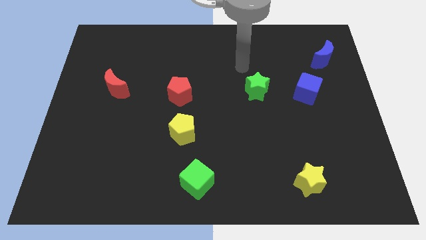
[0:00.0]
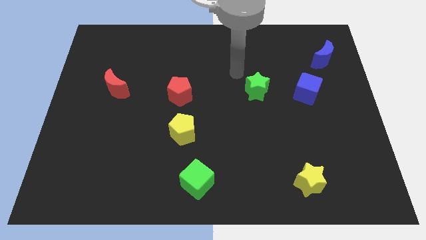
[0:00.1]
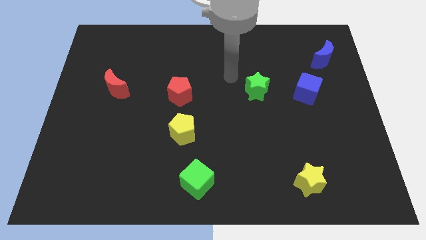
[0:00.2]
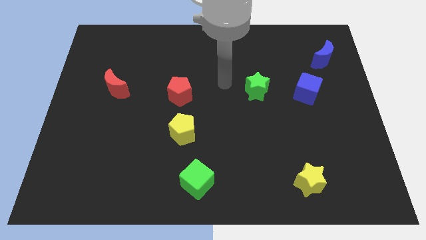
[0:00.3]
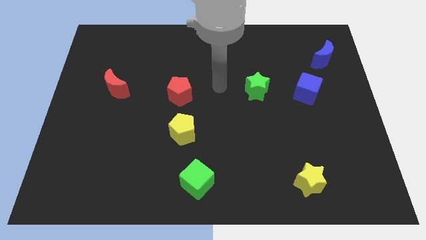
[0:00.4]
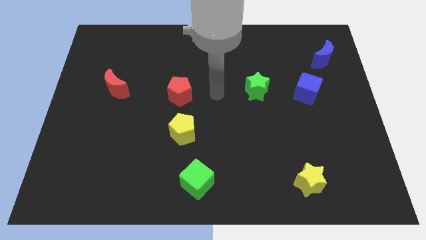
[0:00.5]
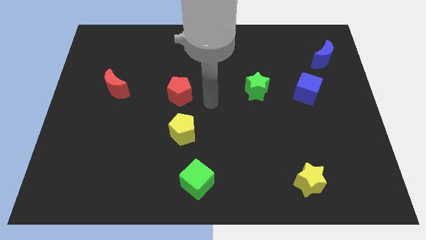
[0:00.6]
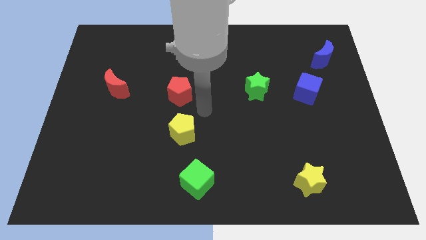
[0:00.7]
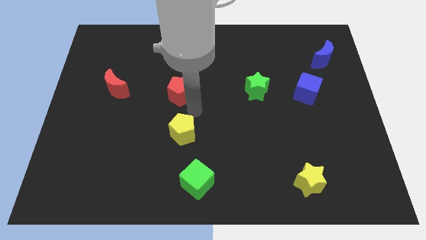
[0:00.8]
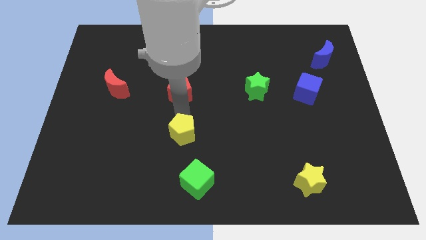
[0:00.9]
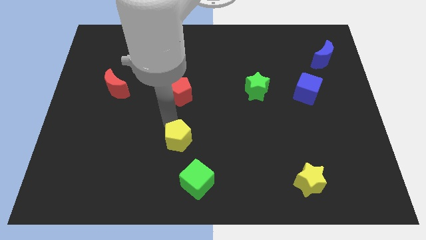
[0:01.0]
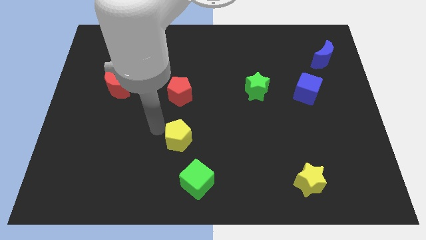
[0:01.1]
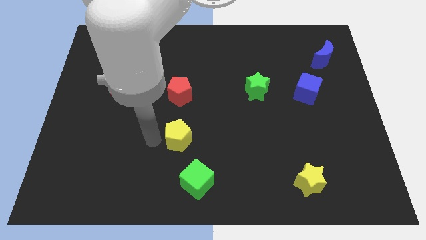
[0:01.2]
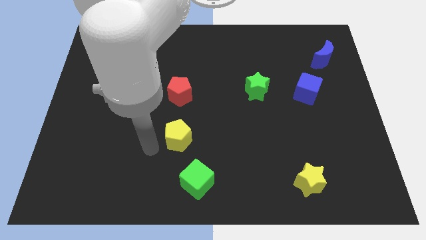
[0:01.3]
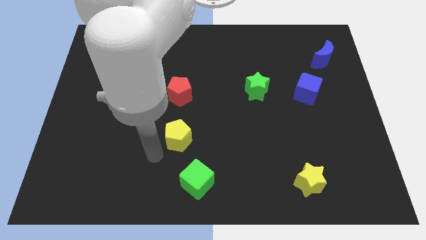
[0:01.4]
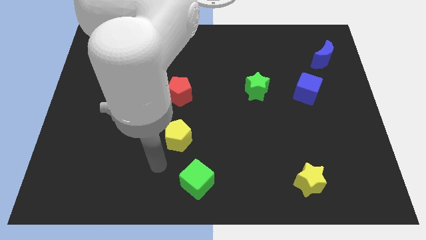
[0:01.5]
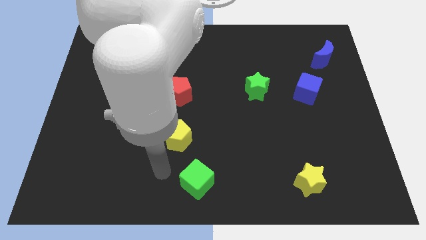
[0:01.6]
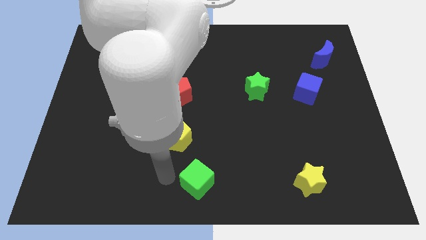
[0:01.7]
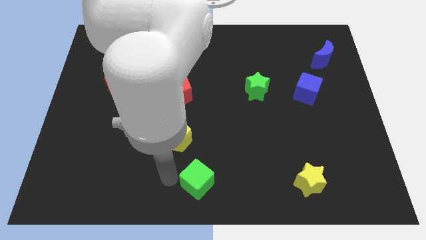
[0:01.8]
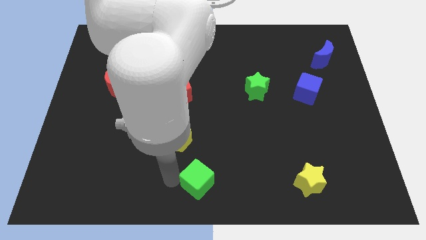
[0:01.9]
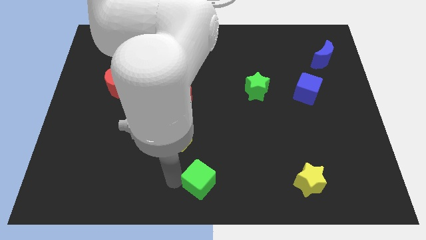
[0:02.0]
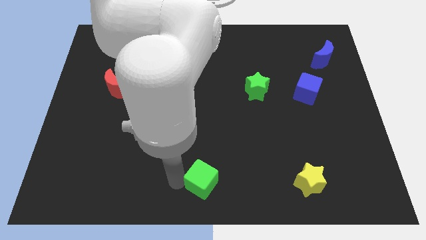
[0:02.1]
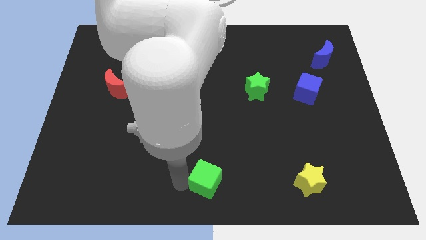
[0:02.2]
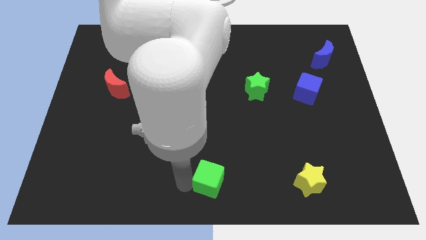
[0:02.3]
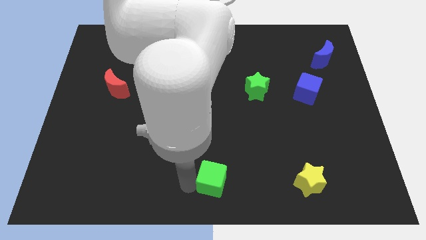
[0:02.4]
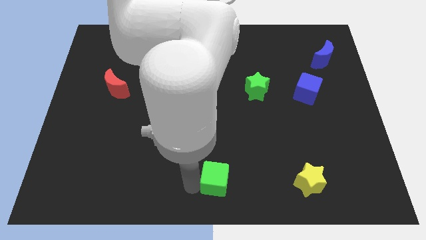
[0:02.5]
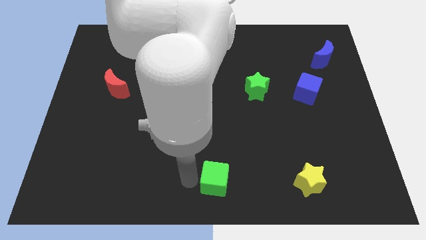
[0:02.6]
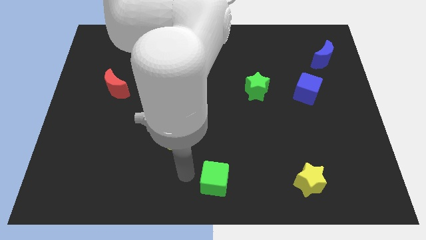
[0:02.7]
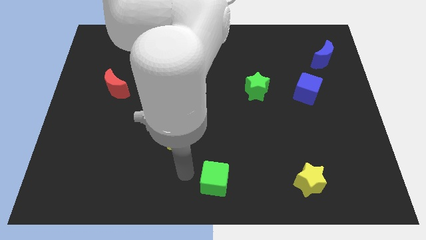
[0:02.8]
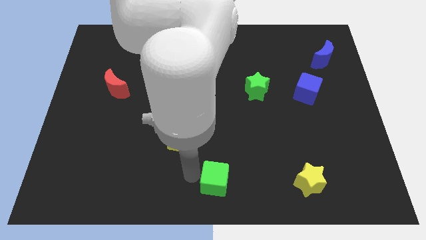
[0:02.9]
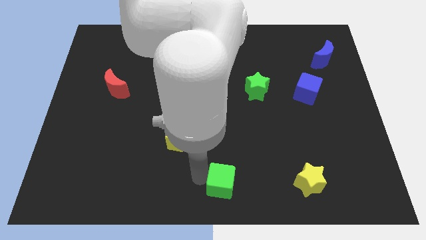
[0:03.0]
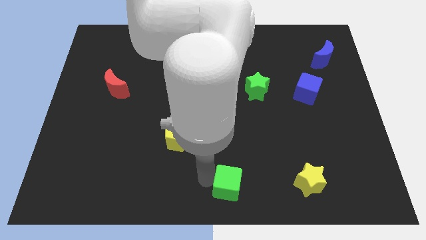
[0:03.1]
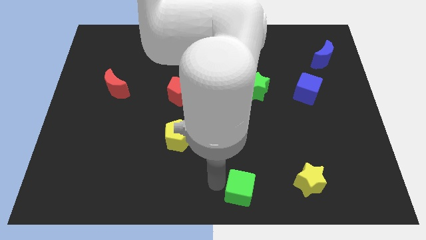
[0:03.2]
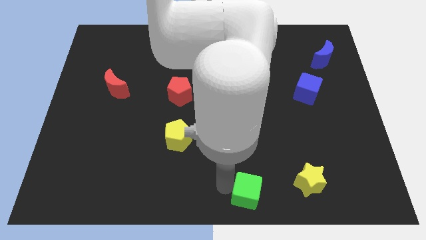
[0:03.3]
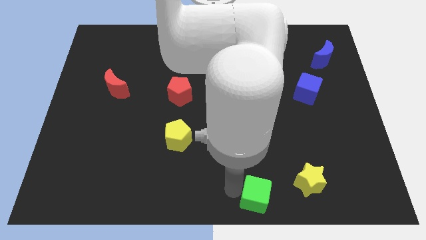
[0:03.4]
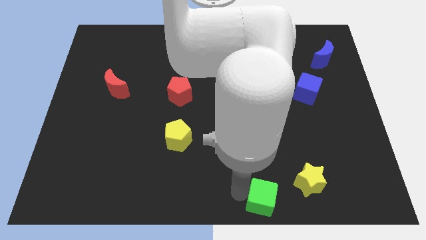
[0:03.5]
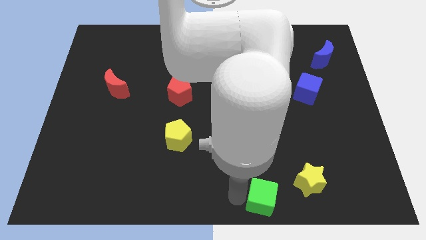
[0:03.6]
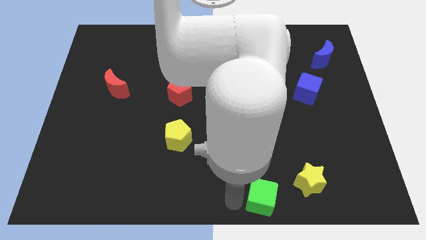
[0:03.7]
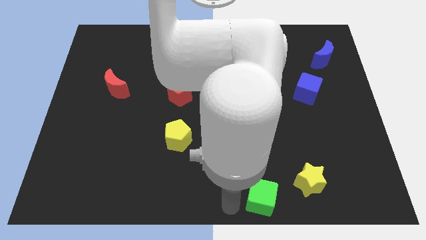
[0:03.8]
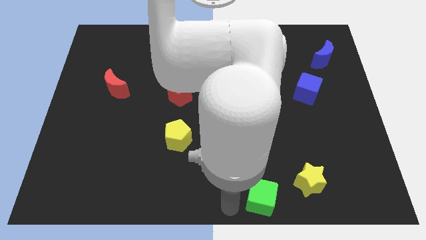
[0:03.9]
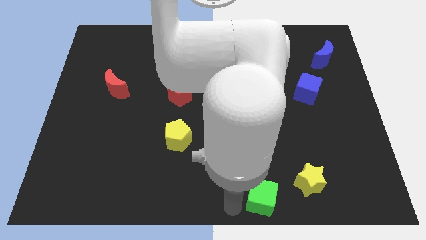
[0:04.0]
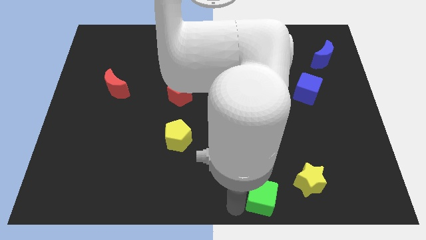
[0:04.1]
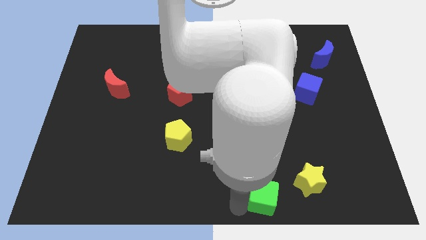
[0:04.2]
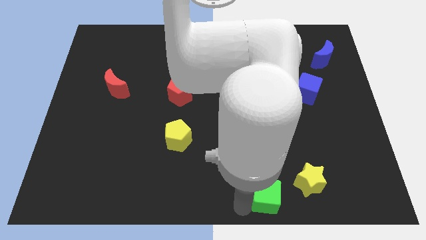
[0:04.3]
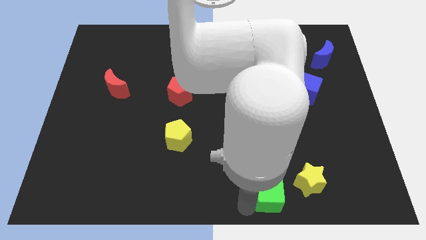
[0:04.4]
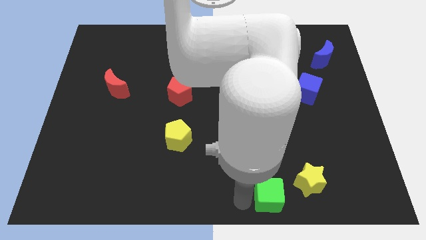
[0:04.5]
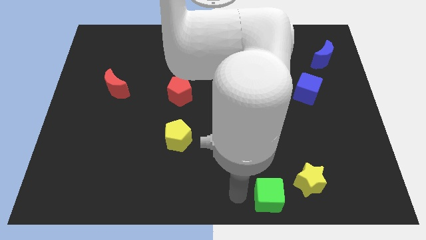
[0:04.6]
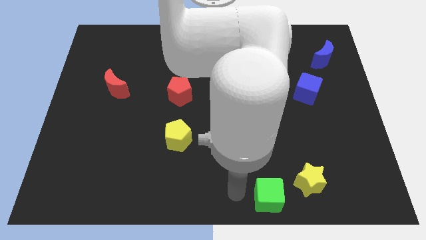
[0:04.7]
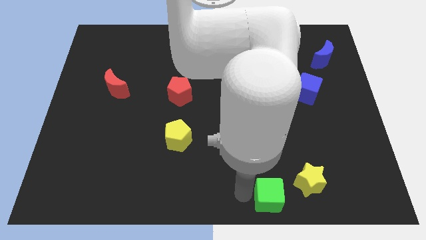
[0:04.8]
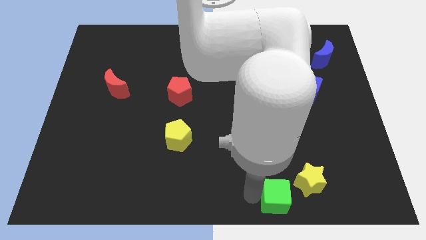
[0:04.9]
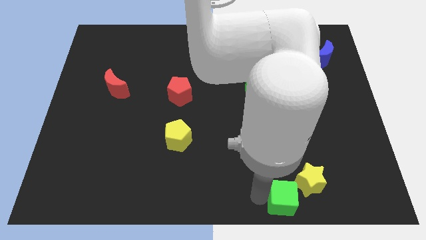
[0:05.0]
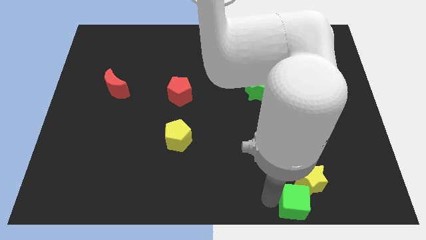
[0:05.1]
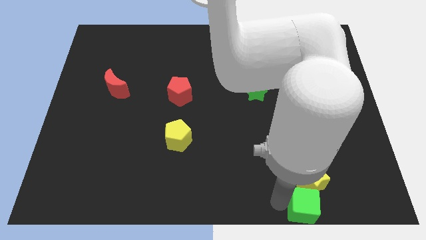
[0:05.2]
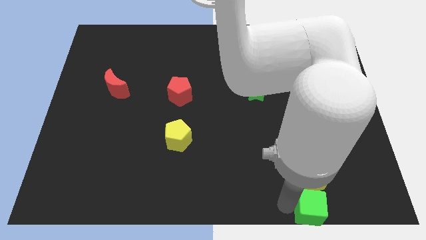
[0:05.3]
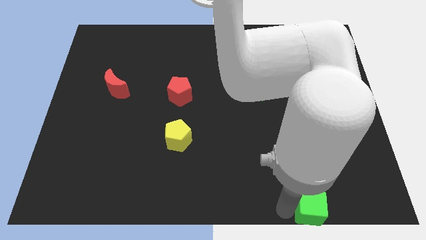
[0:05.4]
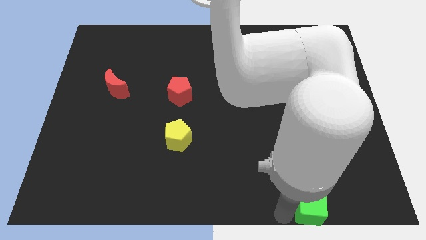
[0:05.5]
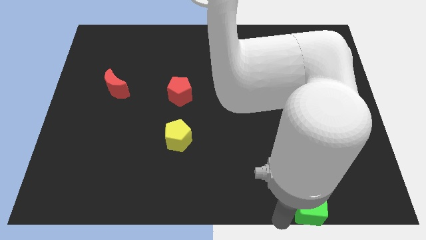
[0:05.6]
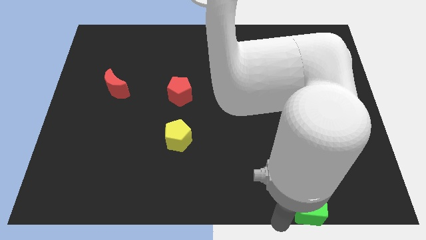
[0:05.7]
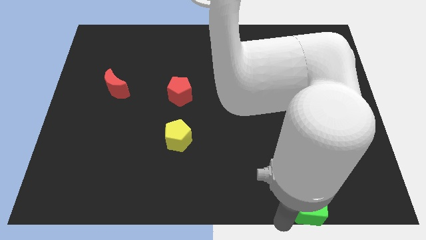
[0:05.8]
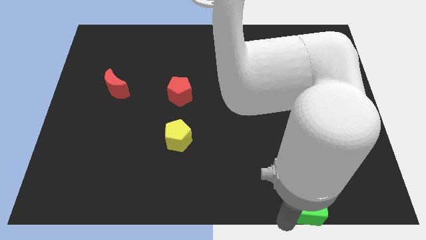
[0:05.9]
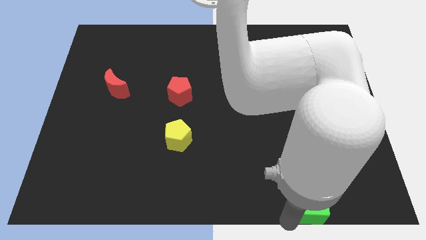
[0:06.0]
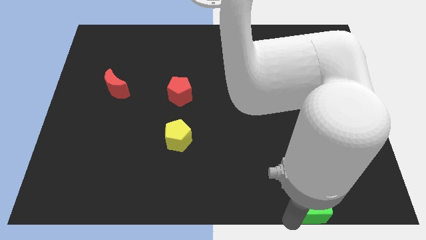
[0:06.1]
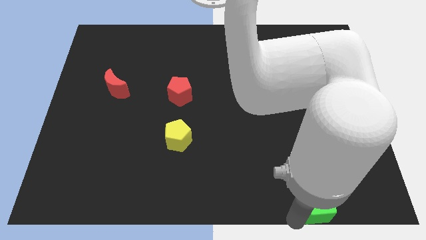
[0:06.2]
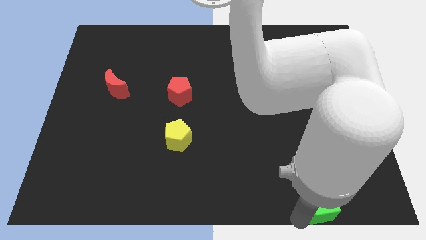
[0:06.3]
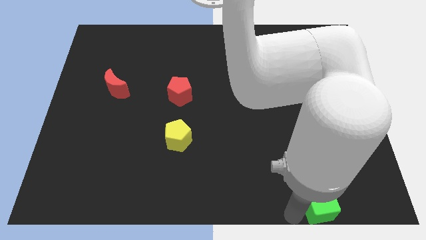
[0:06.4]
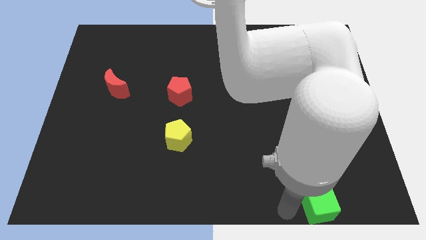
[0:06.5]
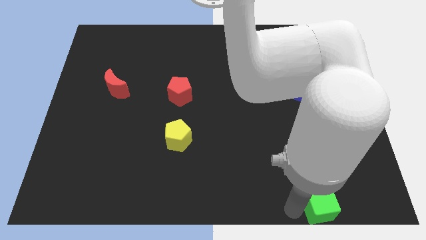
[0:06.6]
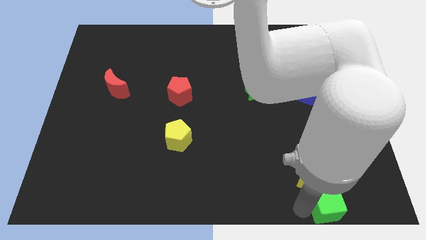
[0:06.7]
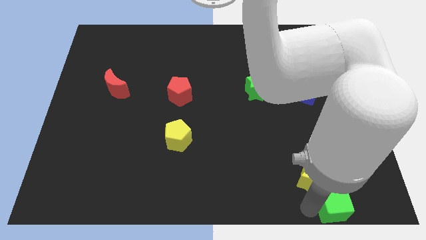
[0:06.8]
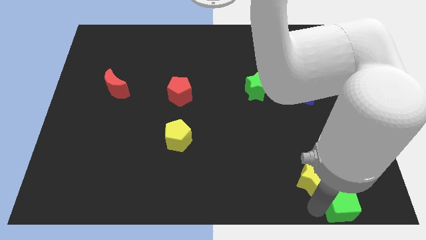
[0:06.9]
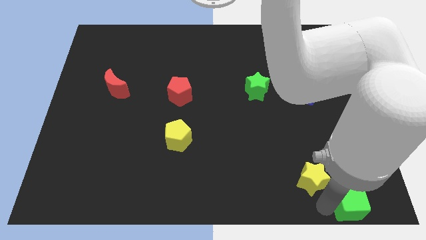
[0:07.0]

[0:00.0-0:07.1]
put the green cube to the bottom right of the board

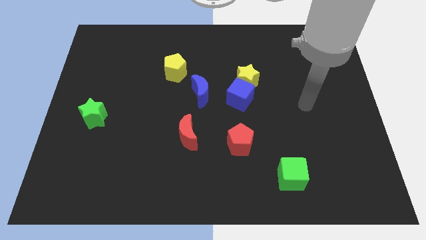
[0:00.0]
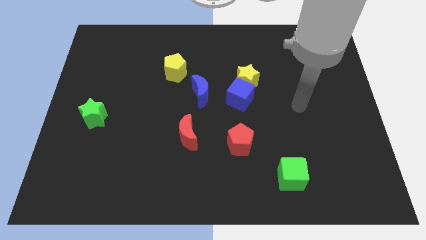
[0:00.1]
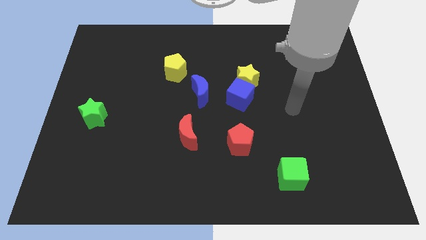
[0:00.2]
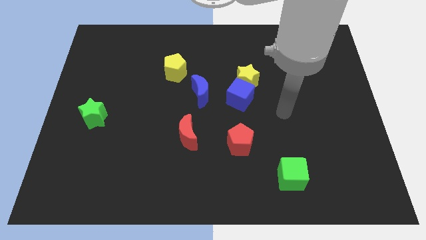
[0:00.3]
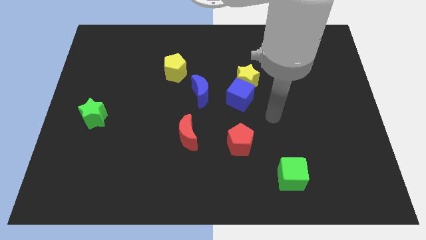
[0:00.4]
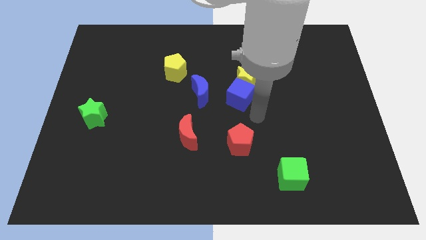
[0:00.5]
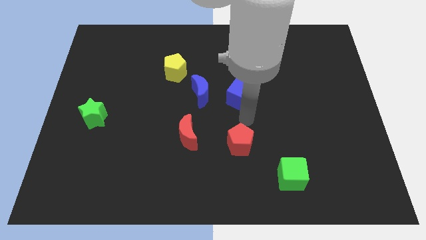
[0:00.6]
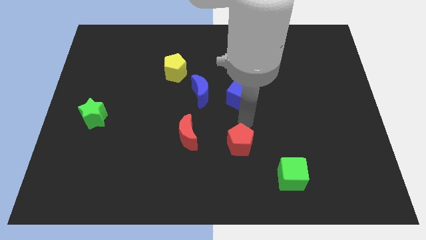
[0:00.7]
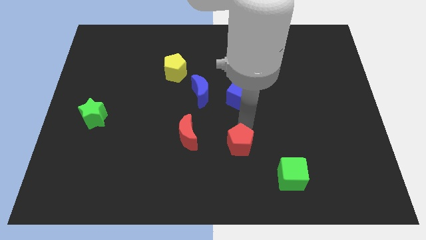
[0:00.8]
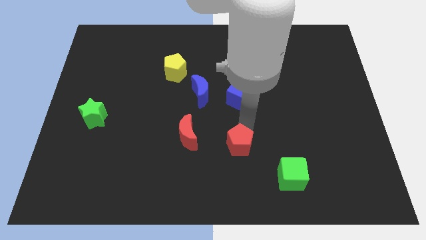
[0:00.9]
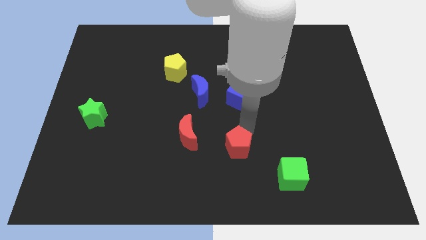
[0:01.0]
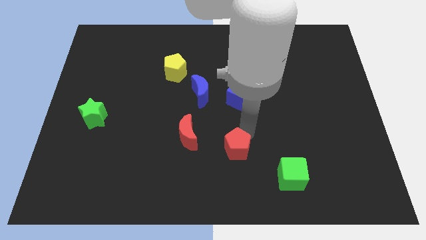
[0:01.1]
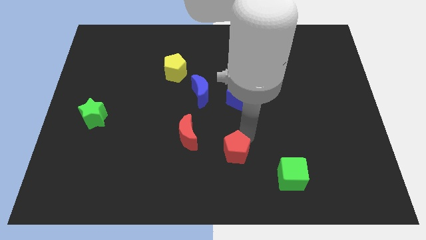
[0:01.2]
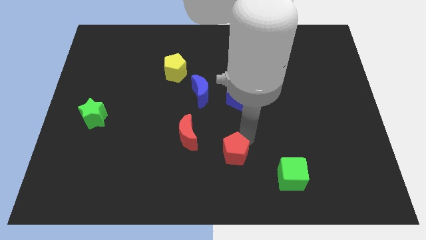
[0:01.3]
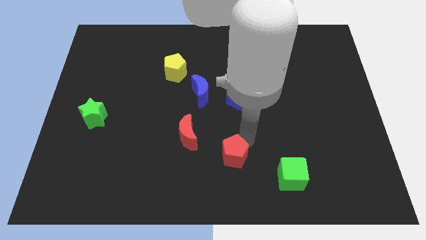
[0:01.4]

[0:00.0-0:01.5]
move the red pentagon to the bottom
